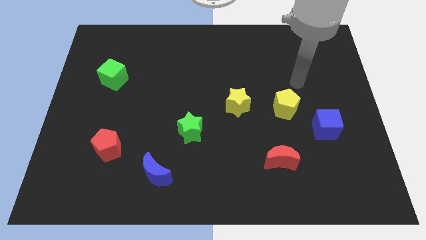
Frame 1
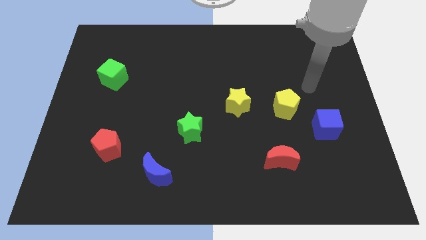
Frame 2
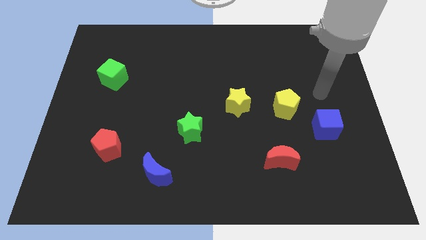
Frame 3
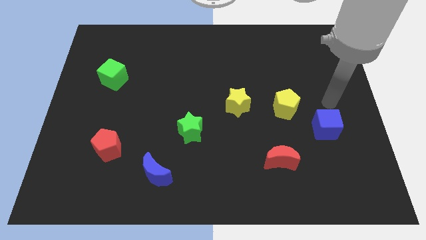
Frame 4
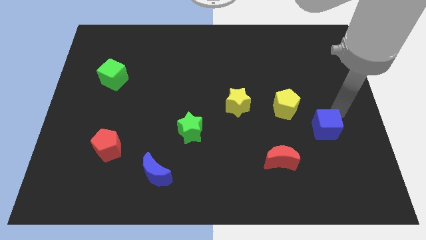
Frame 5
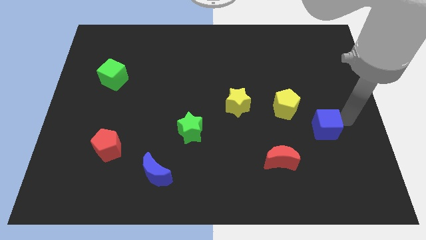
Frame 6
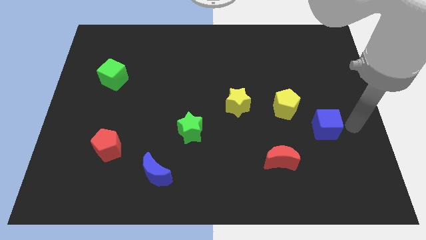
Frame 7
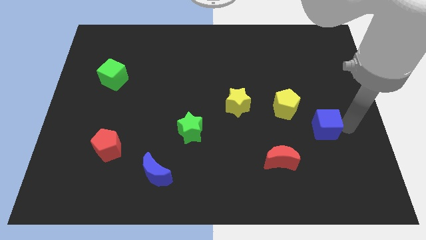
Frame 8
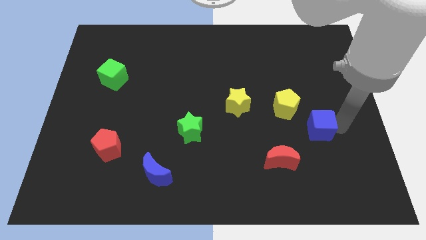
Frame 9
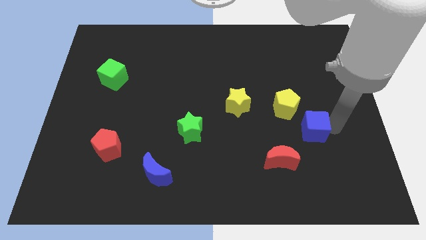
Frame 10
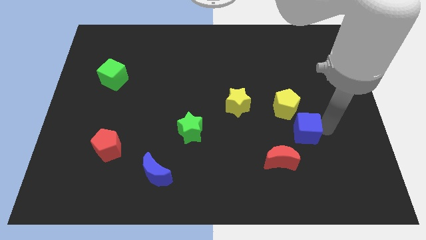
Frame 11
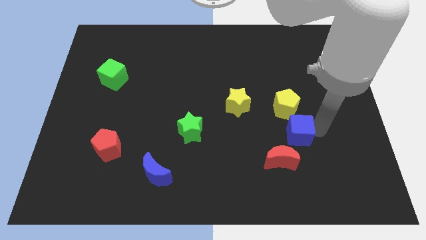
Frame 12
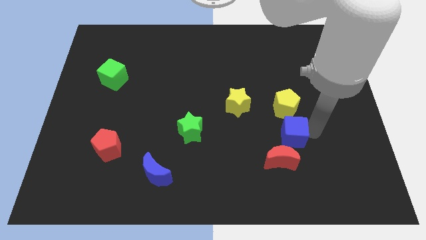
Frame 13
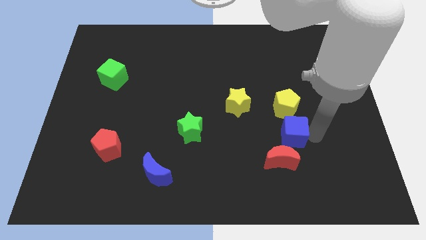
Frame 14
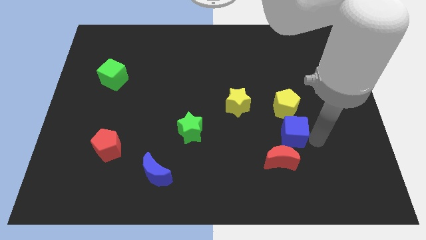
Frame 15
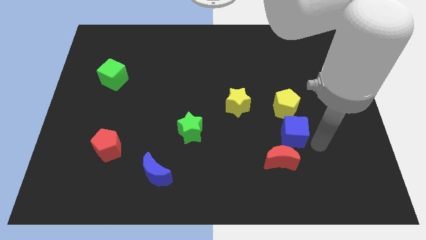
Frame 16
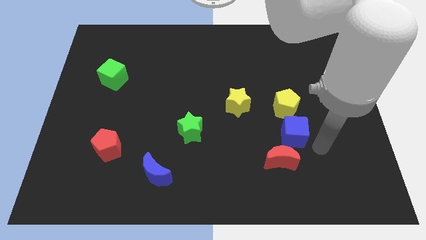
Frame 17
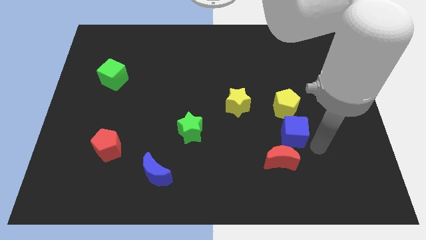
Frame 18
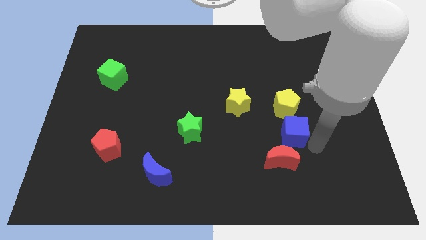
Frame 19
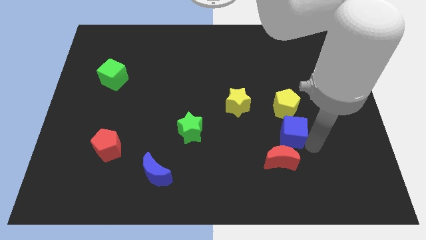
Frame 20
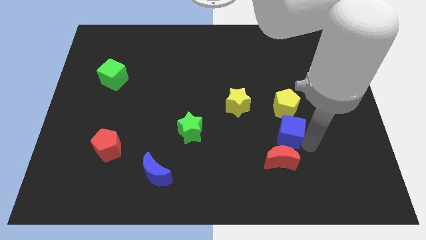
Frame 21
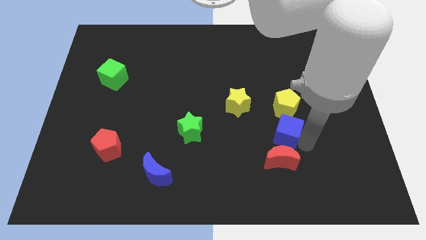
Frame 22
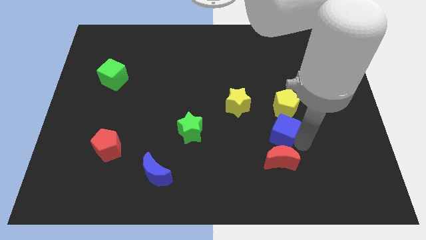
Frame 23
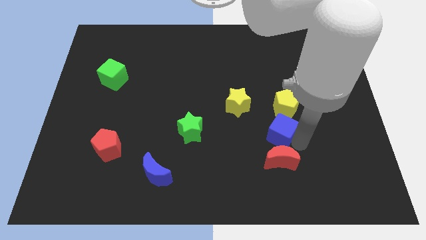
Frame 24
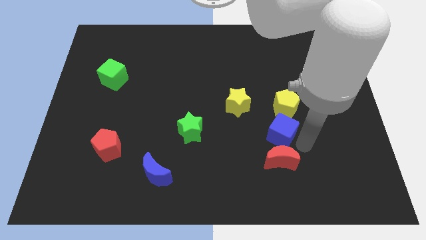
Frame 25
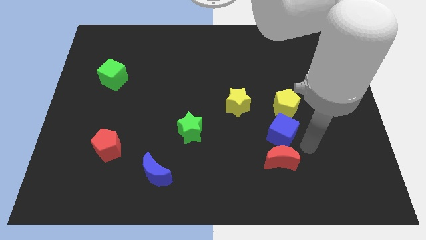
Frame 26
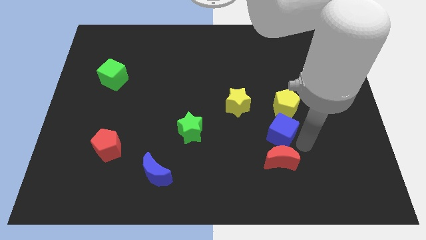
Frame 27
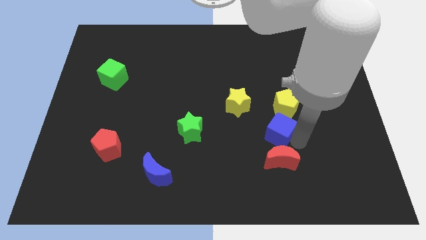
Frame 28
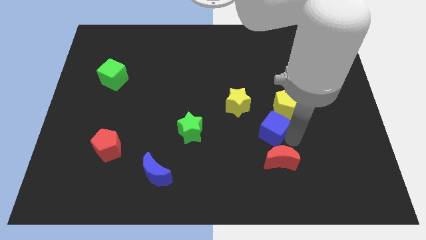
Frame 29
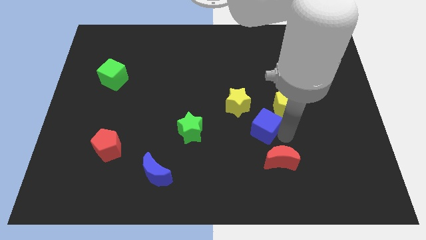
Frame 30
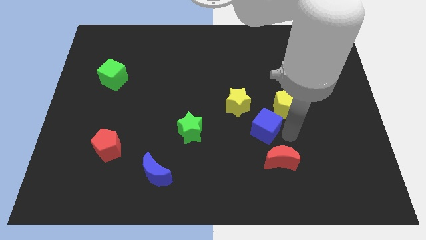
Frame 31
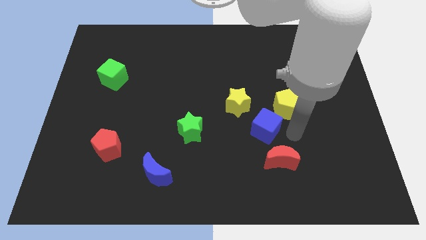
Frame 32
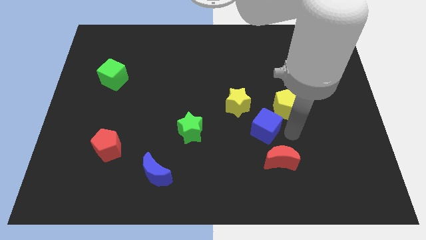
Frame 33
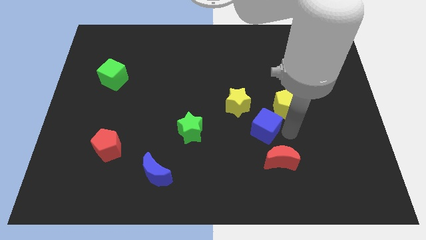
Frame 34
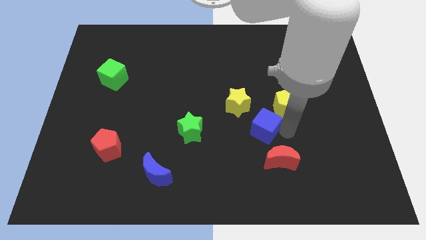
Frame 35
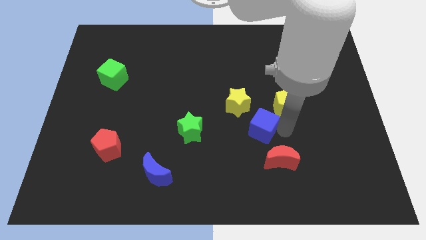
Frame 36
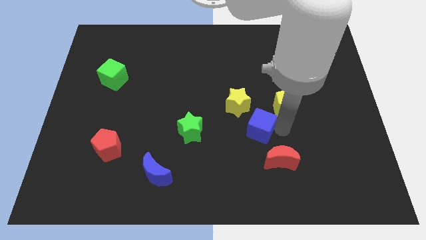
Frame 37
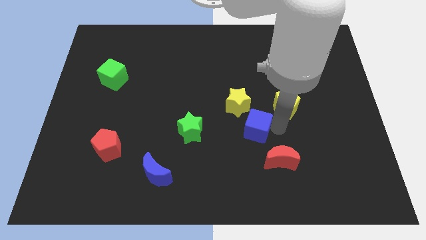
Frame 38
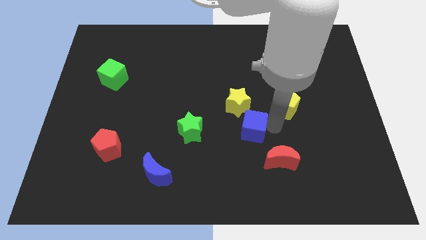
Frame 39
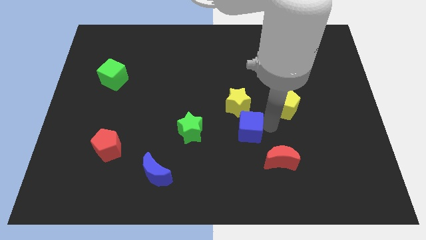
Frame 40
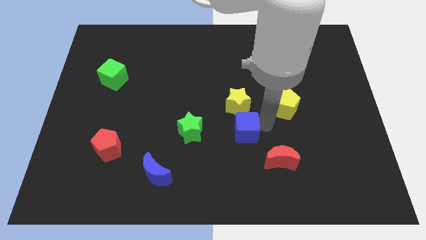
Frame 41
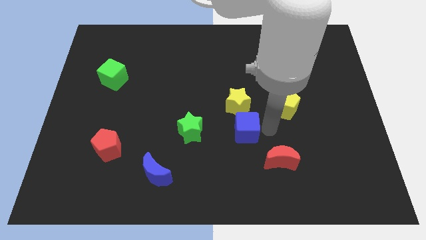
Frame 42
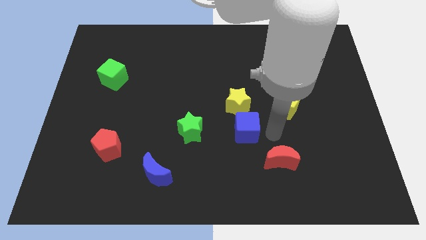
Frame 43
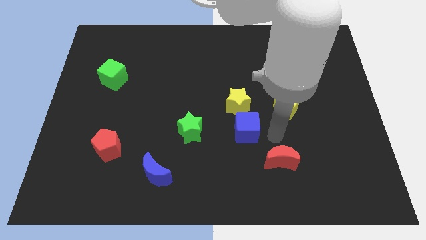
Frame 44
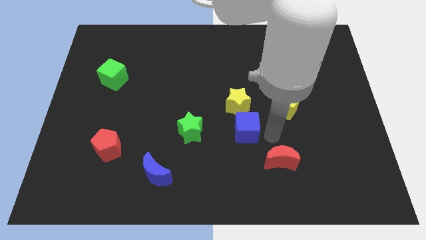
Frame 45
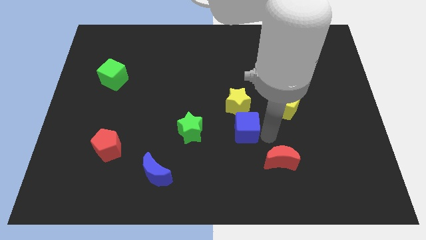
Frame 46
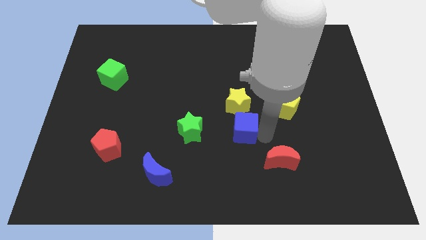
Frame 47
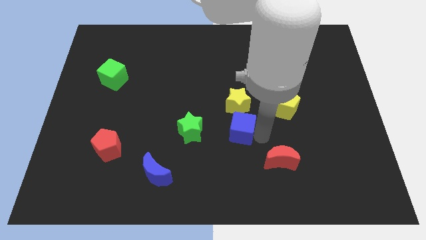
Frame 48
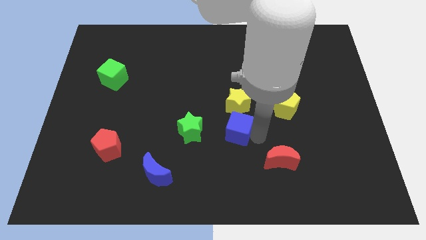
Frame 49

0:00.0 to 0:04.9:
push the blue cube to the bottom left side of the yellow star

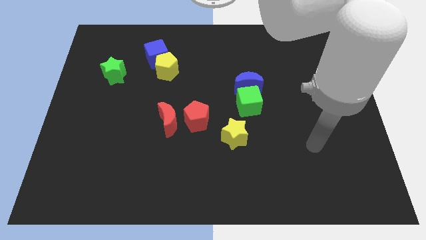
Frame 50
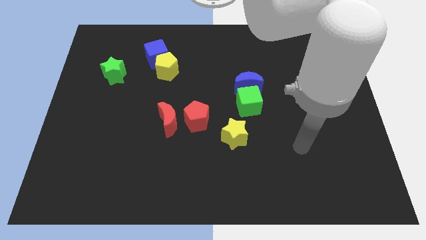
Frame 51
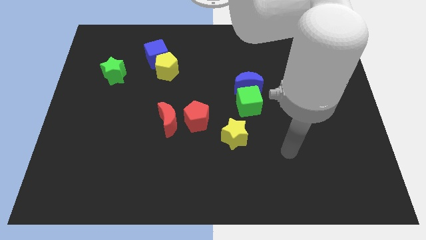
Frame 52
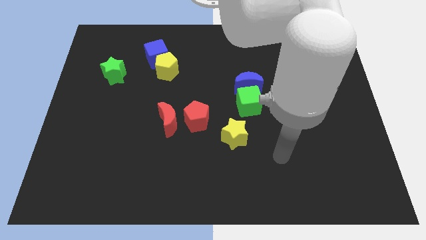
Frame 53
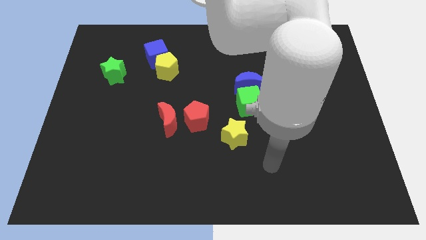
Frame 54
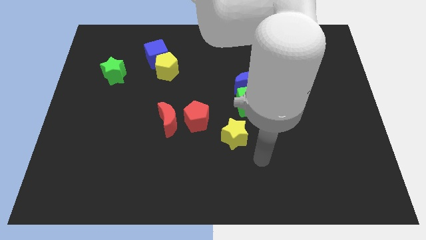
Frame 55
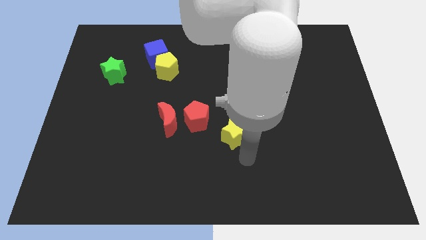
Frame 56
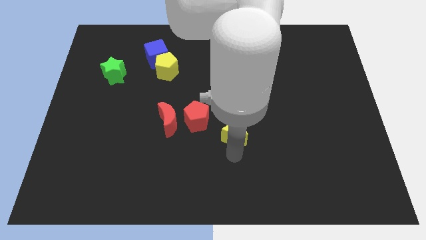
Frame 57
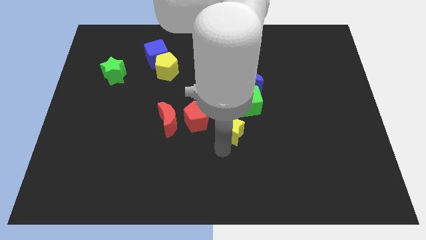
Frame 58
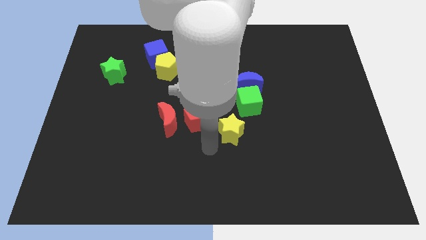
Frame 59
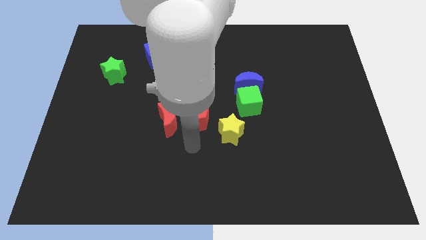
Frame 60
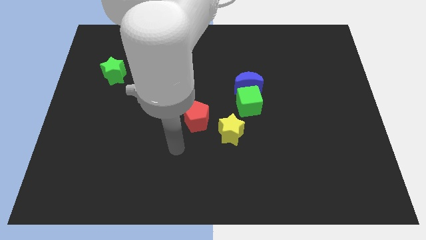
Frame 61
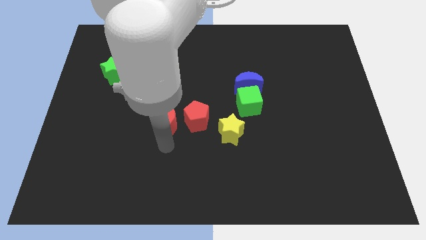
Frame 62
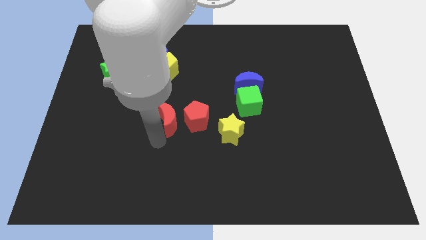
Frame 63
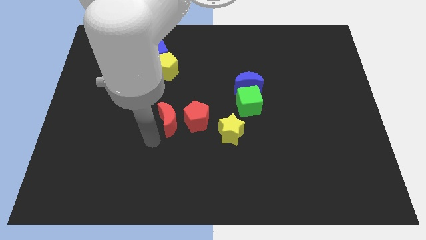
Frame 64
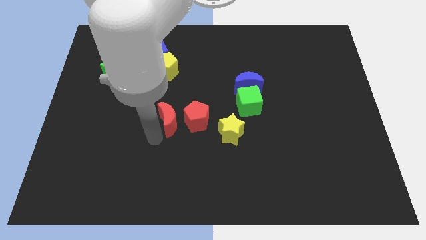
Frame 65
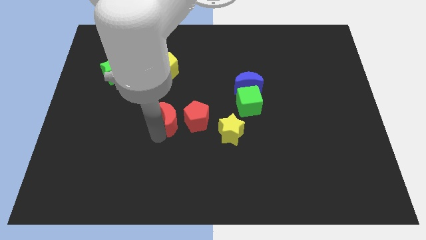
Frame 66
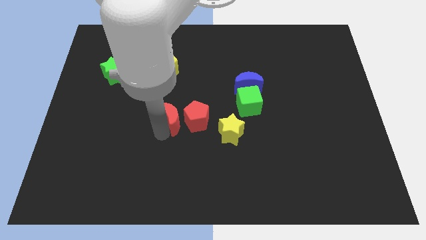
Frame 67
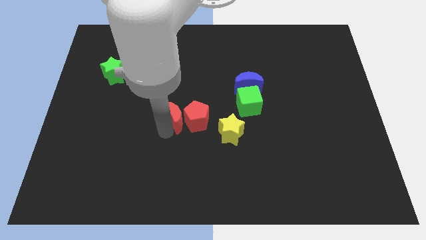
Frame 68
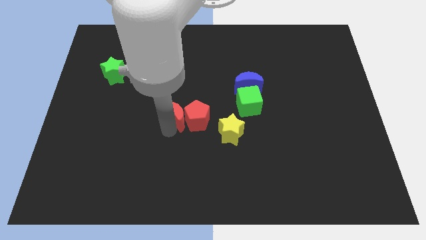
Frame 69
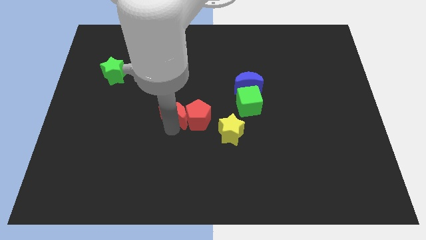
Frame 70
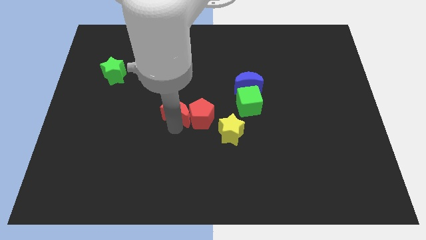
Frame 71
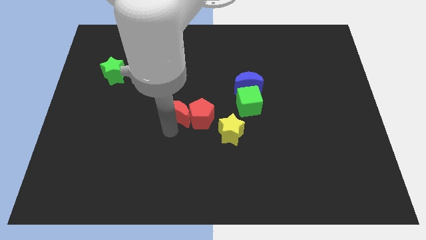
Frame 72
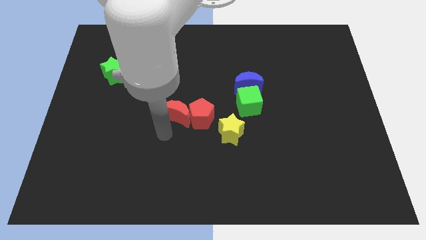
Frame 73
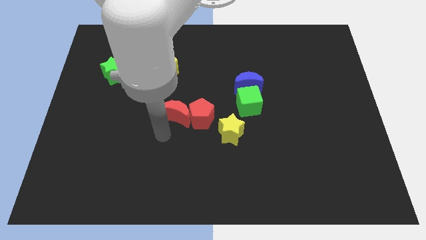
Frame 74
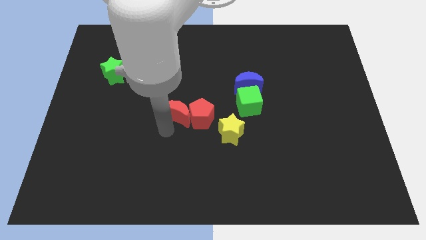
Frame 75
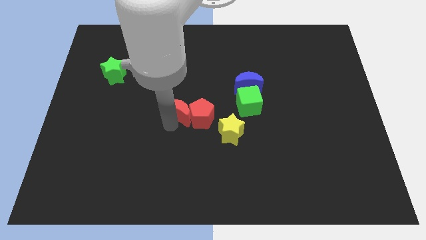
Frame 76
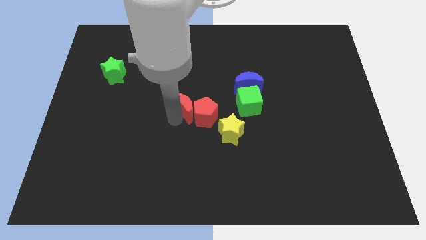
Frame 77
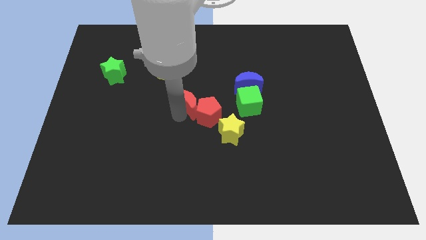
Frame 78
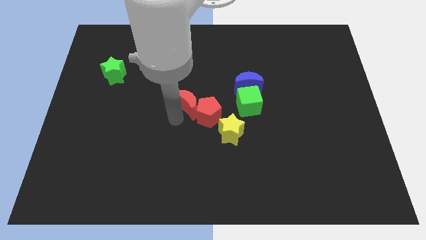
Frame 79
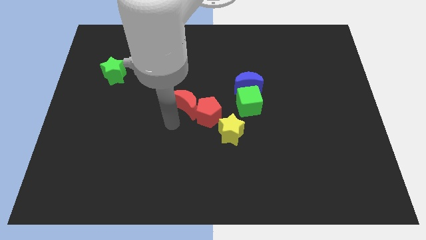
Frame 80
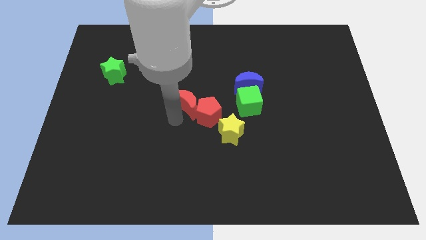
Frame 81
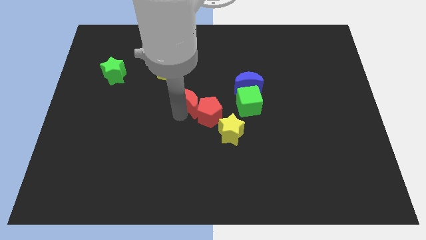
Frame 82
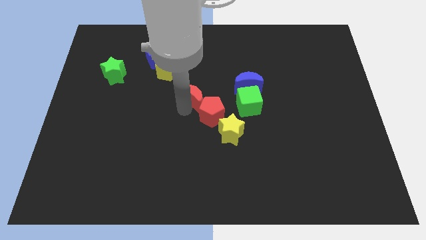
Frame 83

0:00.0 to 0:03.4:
push the red moon just left of the blue moon
